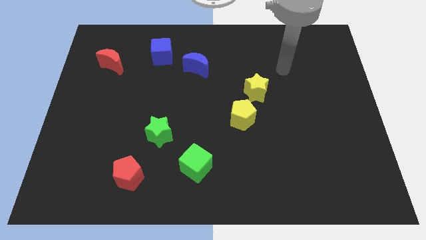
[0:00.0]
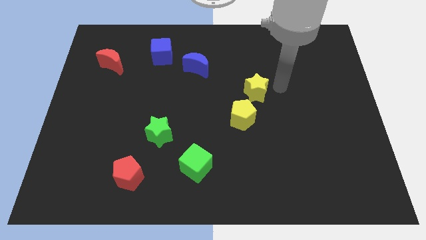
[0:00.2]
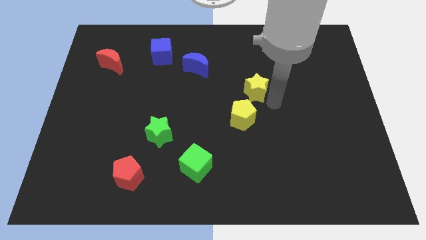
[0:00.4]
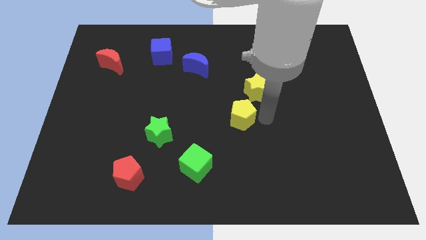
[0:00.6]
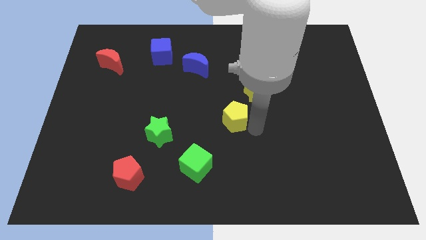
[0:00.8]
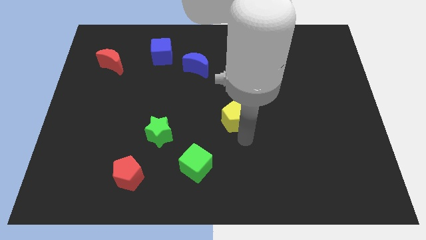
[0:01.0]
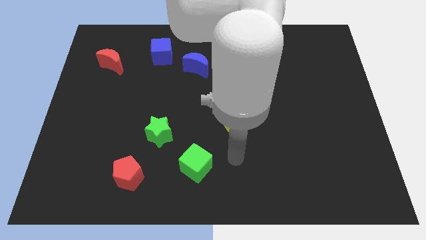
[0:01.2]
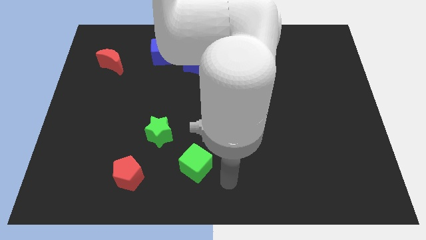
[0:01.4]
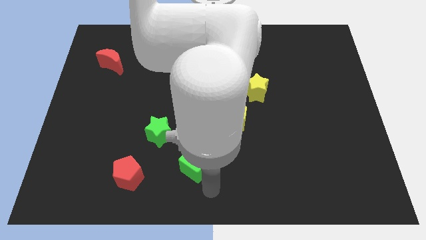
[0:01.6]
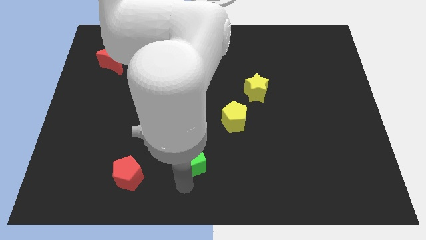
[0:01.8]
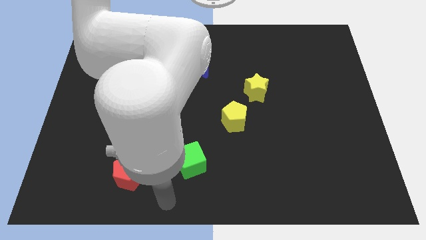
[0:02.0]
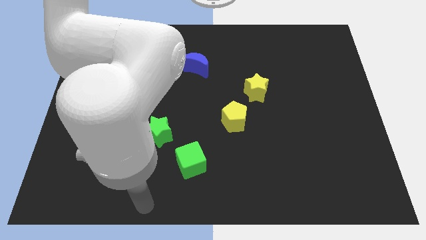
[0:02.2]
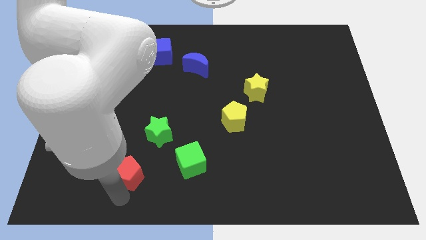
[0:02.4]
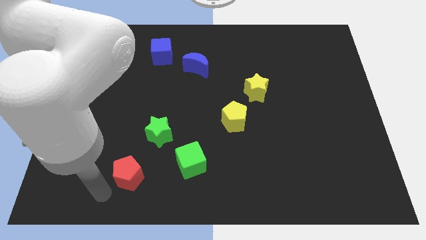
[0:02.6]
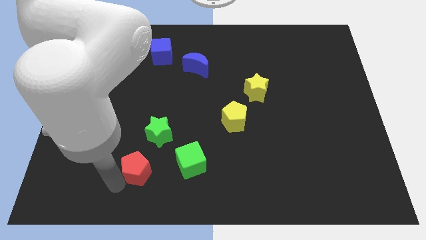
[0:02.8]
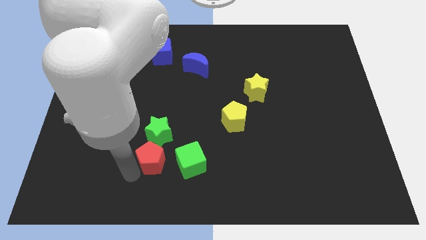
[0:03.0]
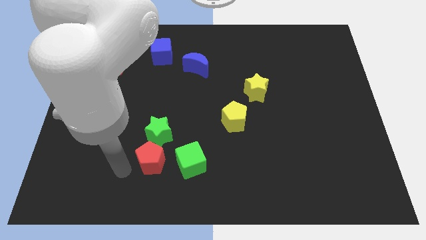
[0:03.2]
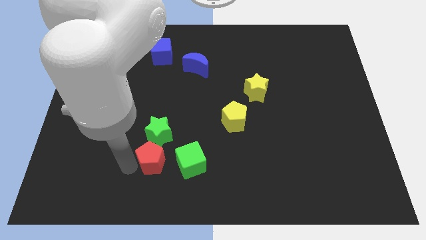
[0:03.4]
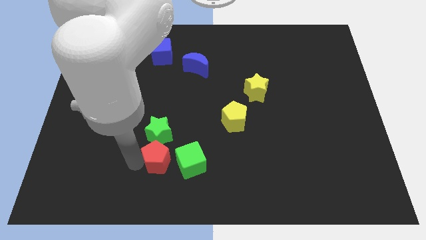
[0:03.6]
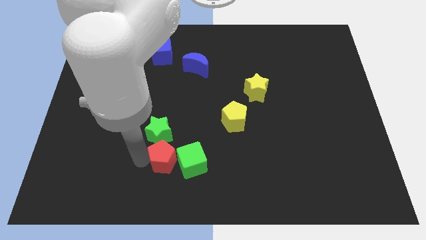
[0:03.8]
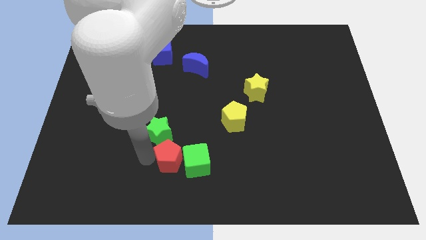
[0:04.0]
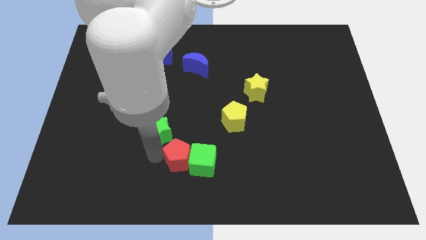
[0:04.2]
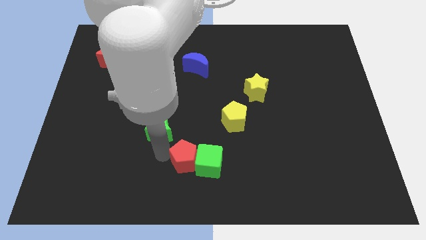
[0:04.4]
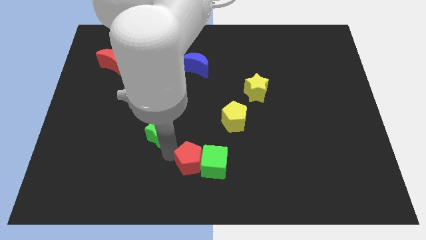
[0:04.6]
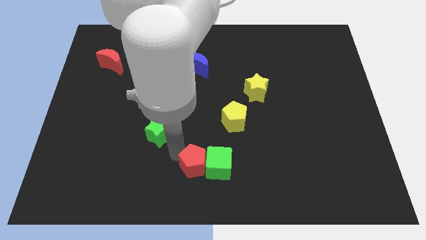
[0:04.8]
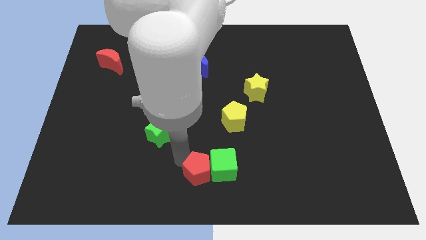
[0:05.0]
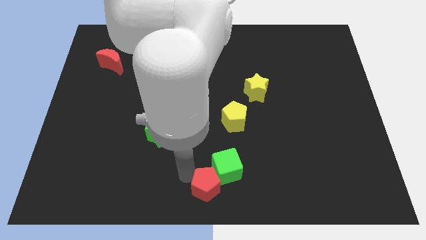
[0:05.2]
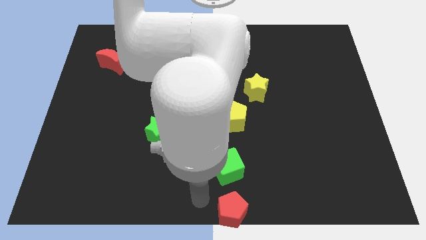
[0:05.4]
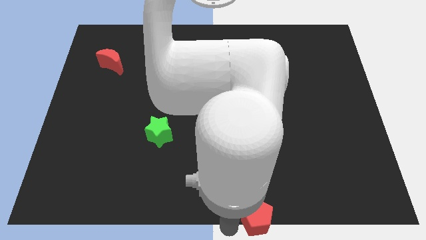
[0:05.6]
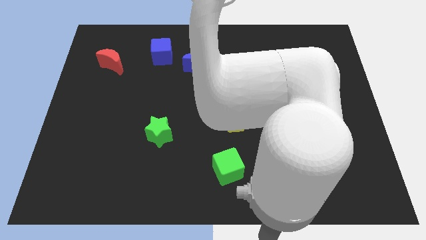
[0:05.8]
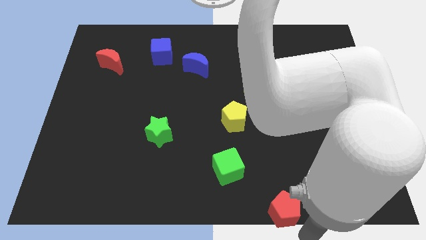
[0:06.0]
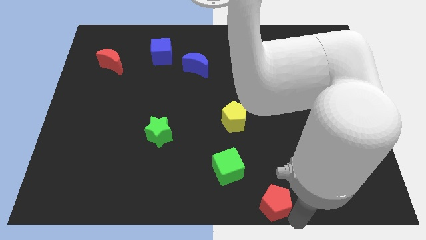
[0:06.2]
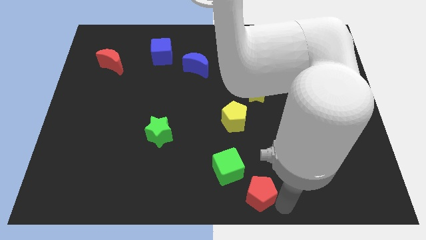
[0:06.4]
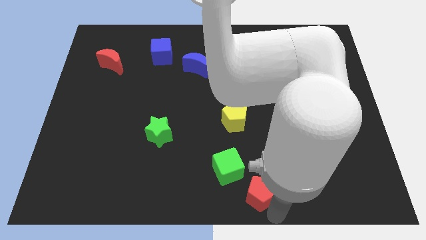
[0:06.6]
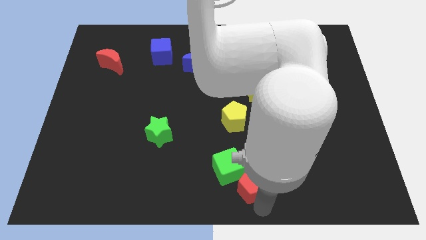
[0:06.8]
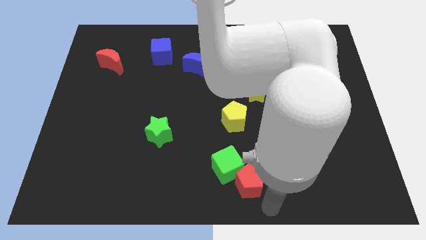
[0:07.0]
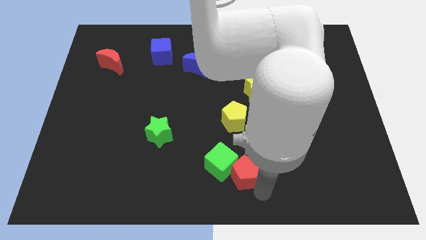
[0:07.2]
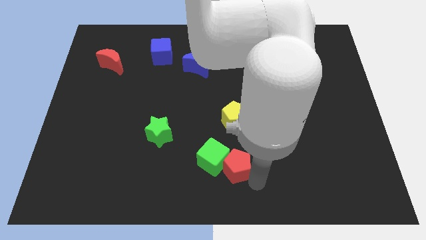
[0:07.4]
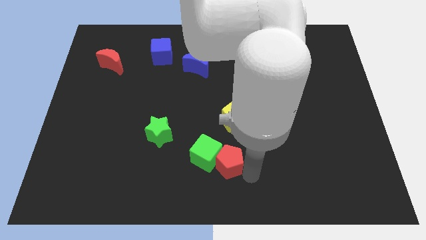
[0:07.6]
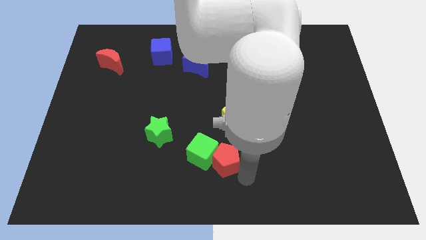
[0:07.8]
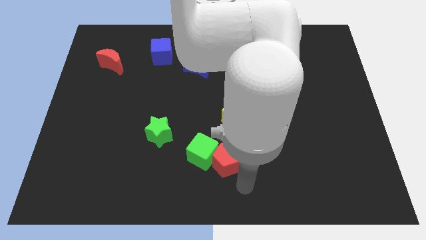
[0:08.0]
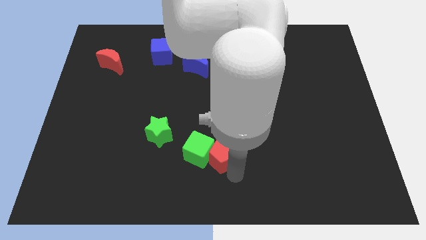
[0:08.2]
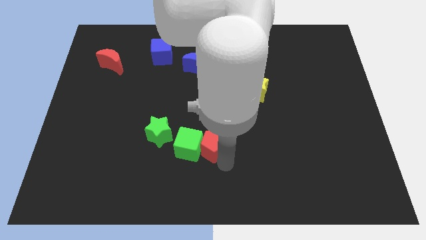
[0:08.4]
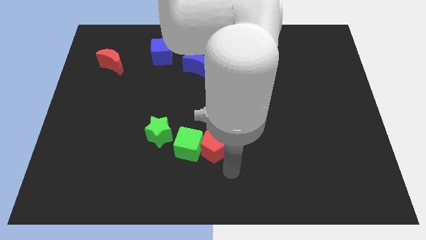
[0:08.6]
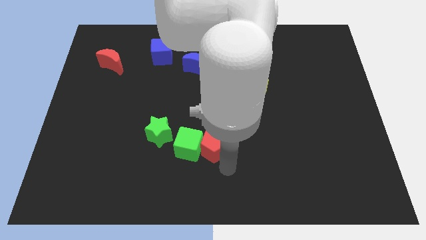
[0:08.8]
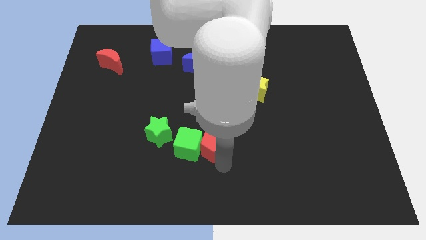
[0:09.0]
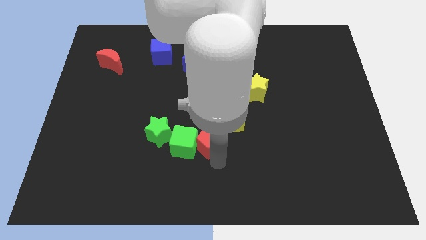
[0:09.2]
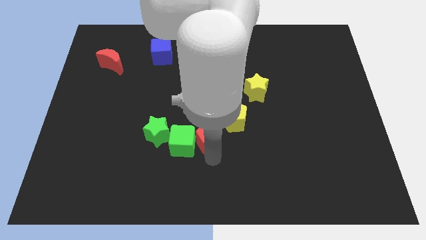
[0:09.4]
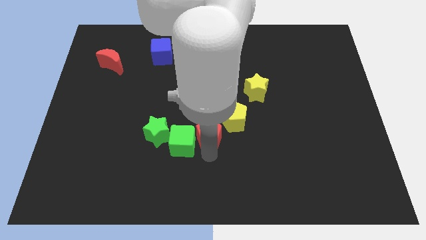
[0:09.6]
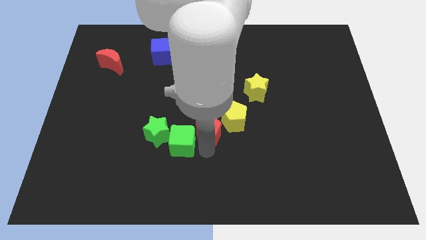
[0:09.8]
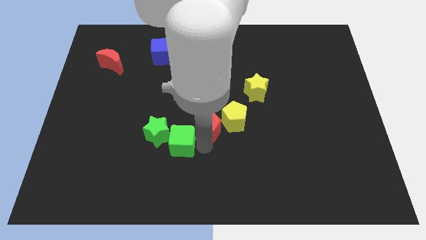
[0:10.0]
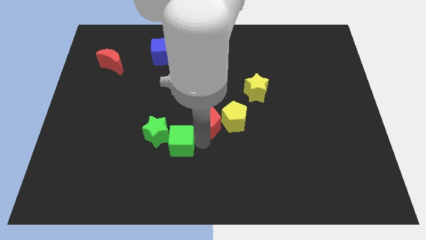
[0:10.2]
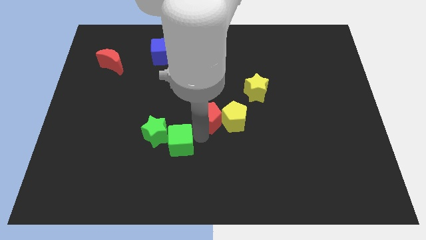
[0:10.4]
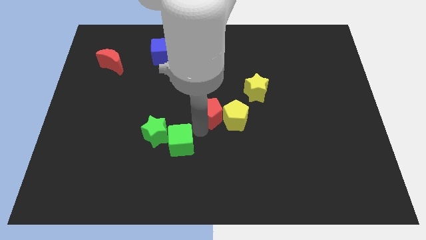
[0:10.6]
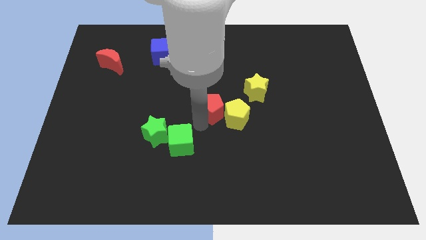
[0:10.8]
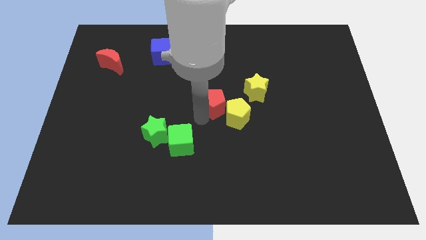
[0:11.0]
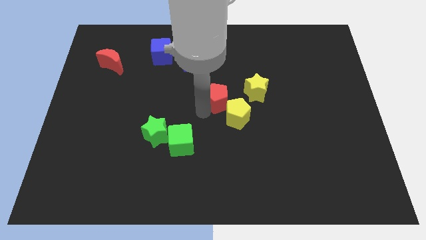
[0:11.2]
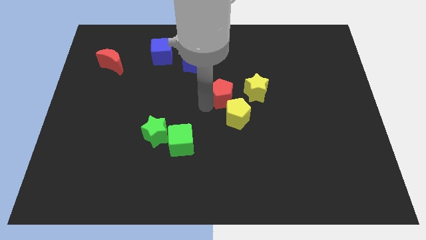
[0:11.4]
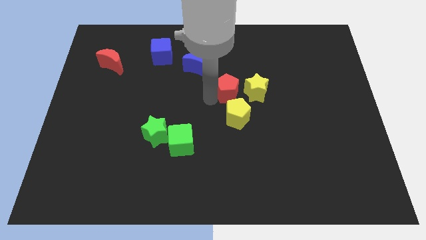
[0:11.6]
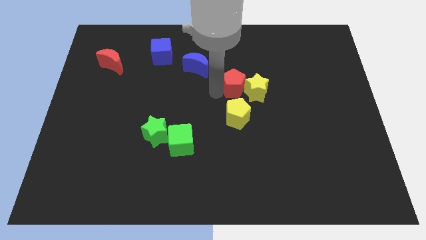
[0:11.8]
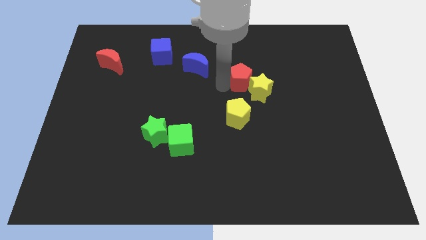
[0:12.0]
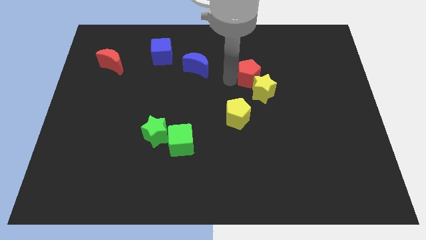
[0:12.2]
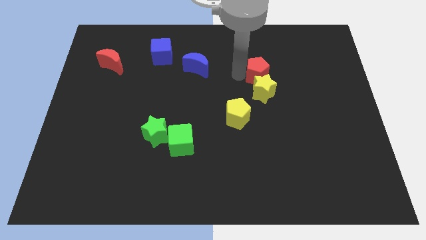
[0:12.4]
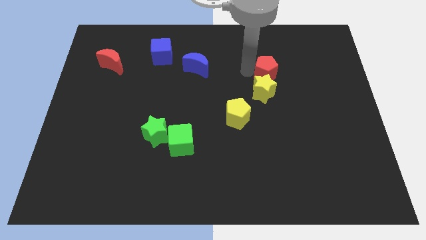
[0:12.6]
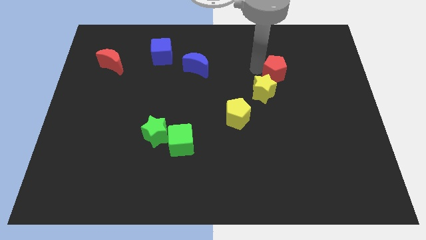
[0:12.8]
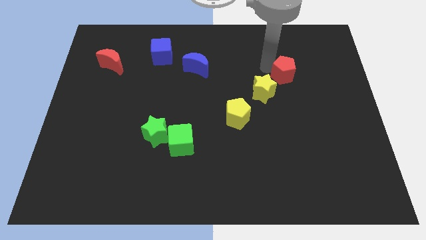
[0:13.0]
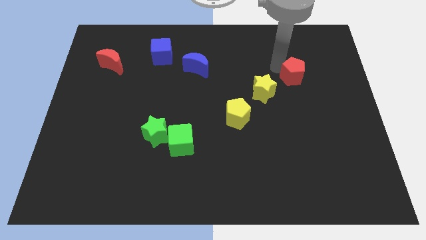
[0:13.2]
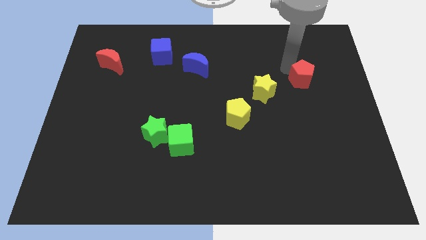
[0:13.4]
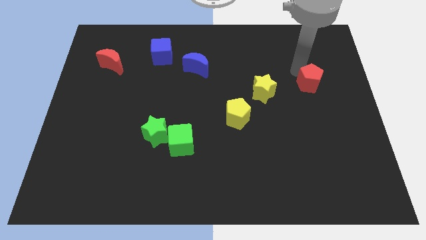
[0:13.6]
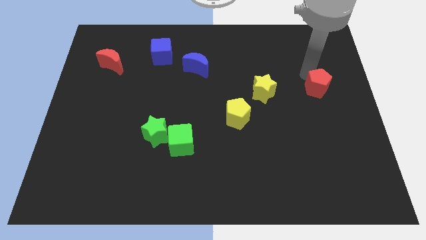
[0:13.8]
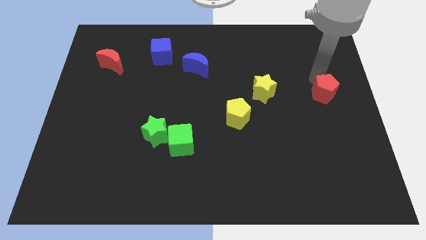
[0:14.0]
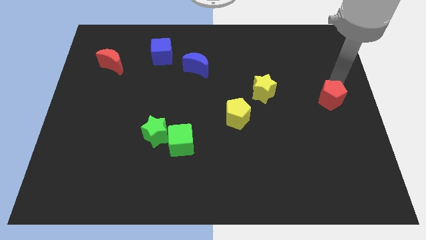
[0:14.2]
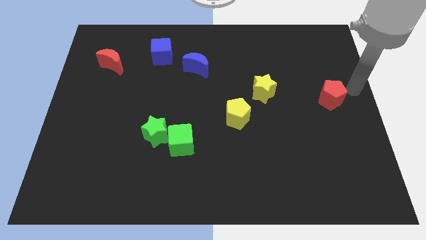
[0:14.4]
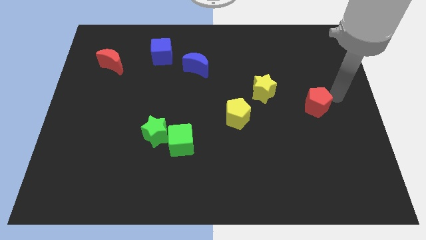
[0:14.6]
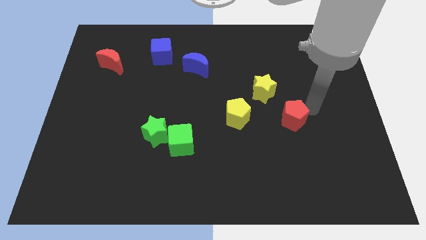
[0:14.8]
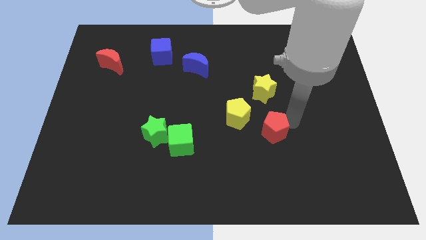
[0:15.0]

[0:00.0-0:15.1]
slide the red pentagon to the bottom right side of the yellow pentagon
